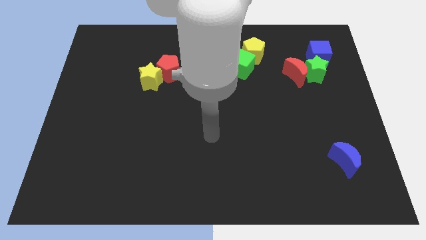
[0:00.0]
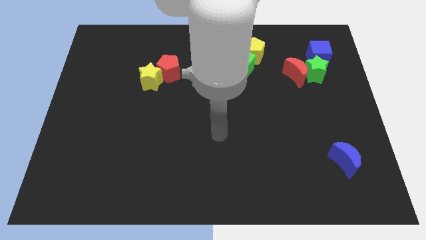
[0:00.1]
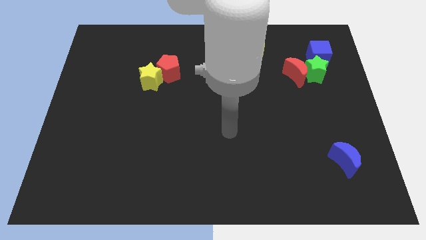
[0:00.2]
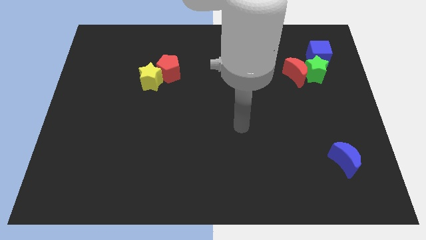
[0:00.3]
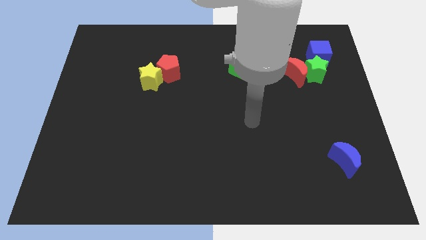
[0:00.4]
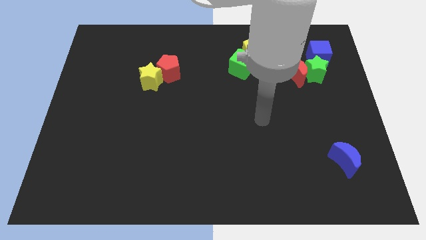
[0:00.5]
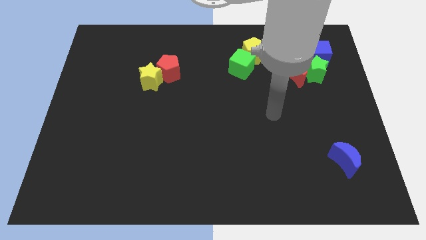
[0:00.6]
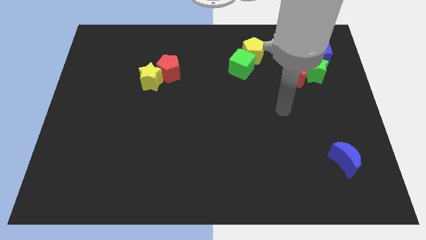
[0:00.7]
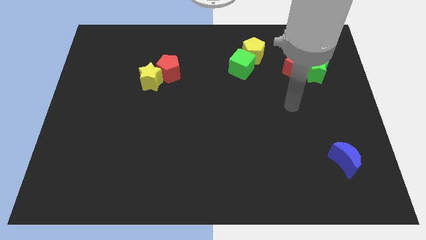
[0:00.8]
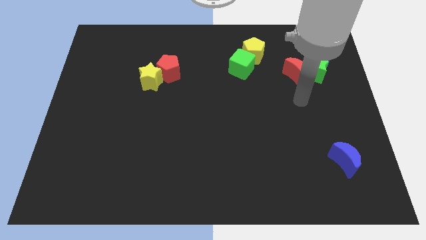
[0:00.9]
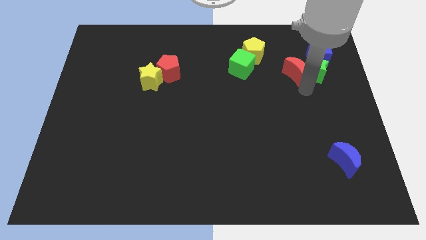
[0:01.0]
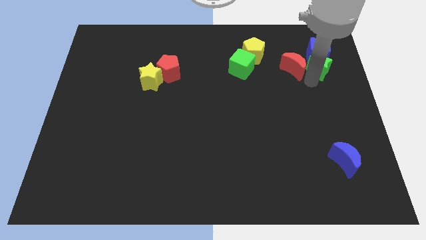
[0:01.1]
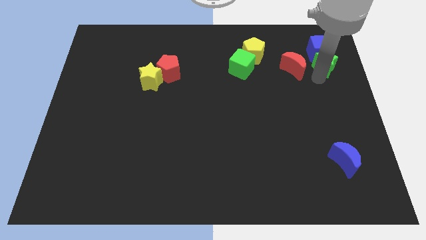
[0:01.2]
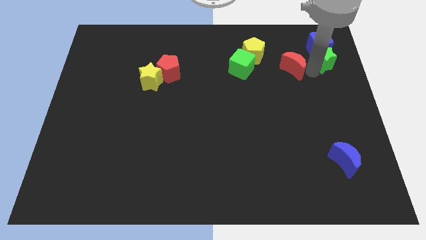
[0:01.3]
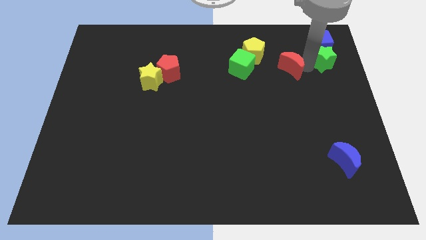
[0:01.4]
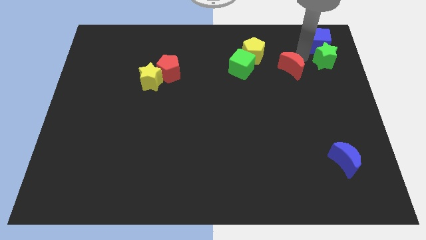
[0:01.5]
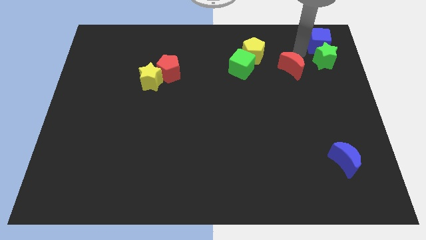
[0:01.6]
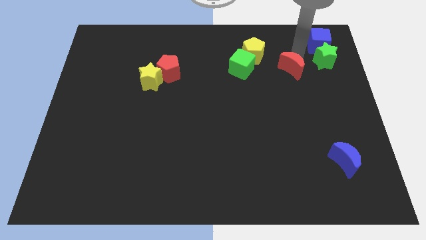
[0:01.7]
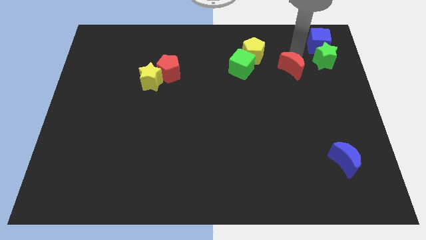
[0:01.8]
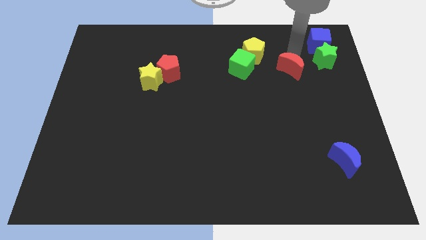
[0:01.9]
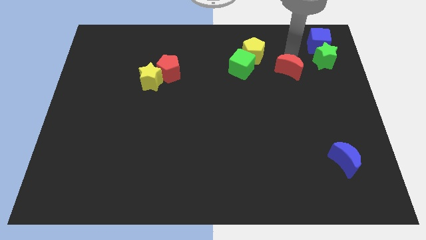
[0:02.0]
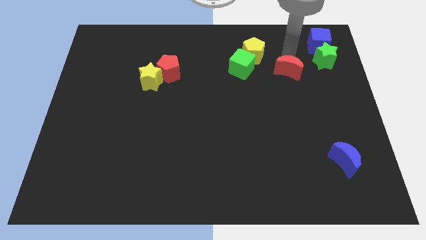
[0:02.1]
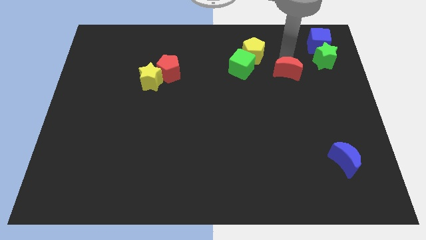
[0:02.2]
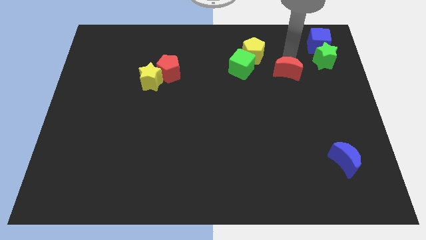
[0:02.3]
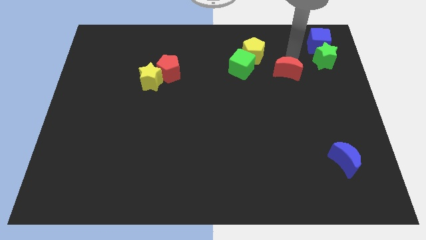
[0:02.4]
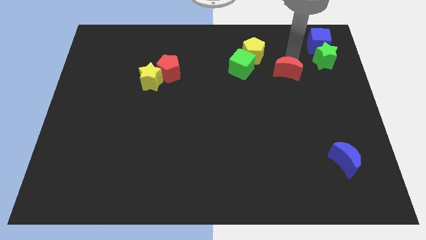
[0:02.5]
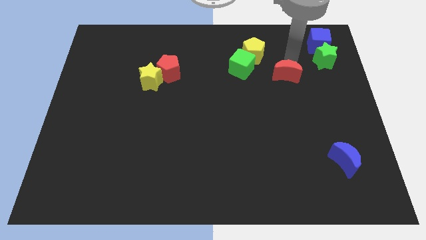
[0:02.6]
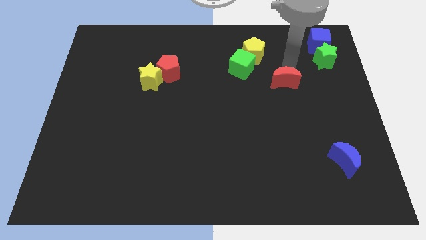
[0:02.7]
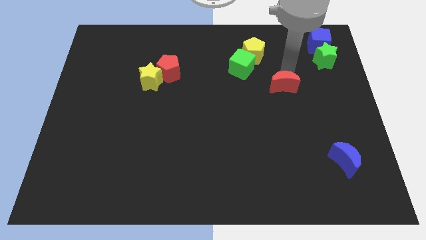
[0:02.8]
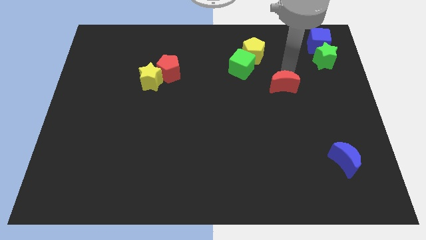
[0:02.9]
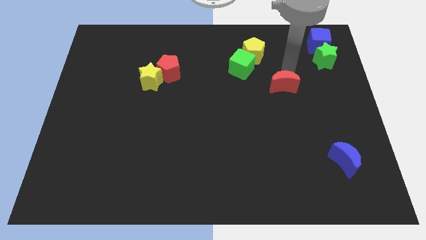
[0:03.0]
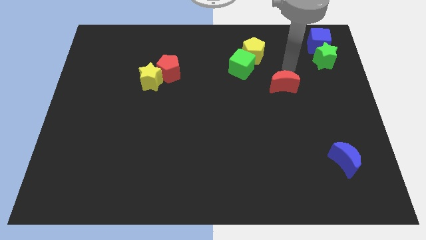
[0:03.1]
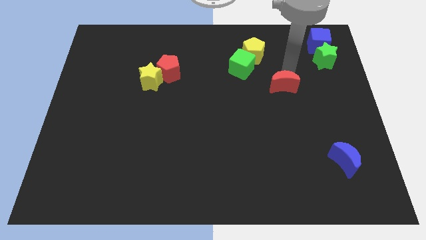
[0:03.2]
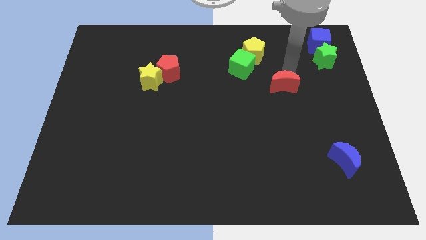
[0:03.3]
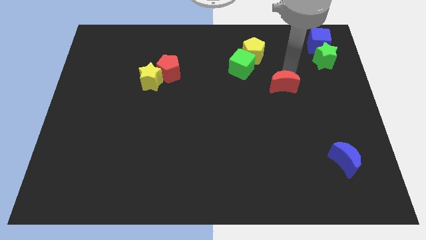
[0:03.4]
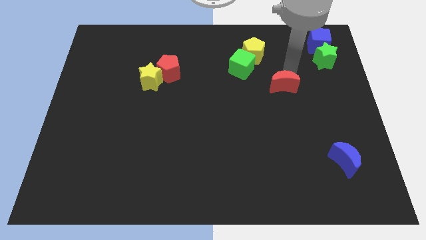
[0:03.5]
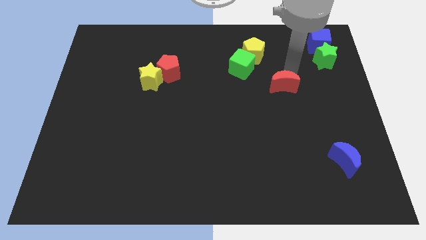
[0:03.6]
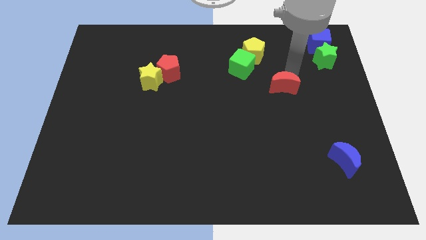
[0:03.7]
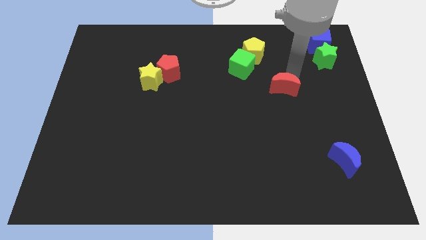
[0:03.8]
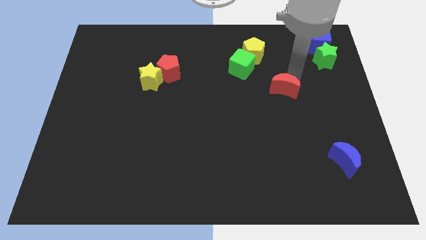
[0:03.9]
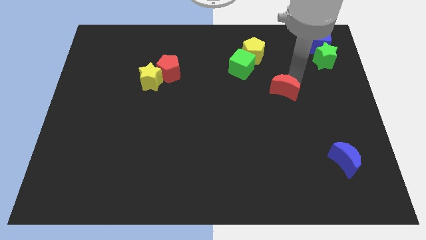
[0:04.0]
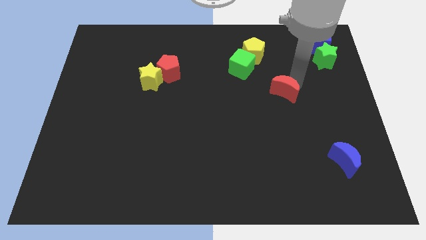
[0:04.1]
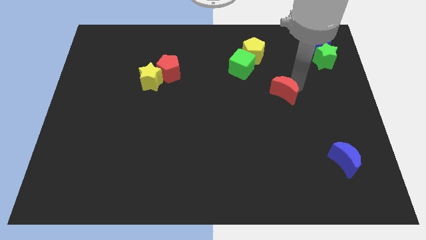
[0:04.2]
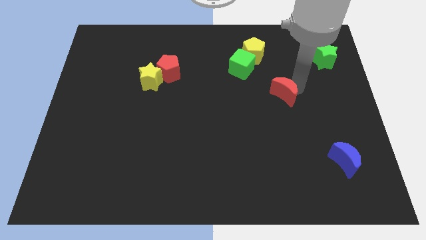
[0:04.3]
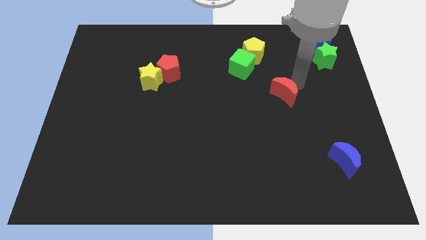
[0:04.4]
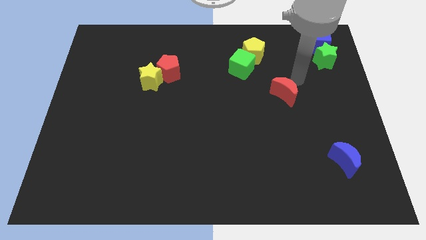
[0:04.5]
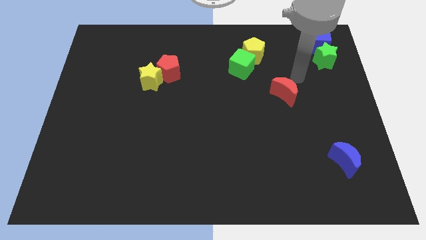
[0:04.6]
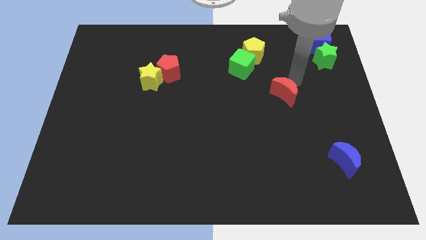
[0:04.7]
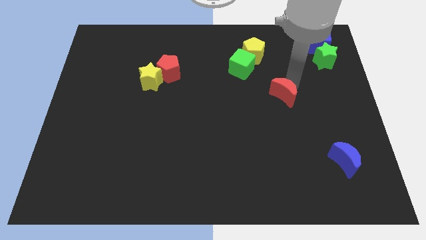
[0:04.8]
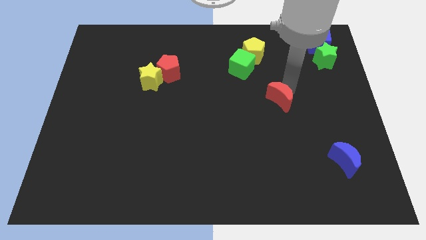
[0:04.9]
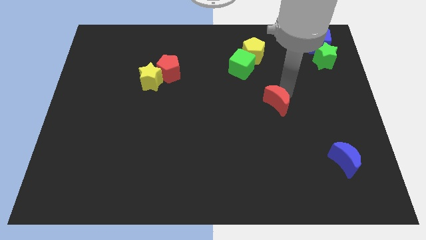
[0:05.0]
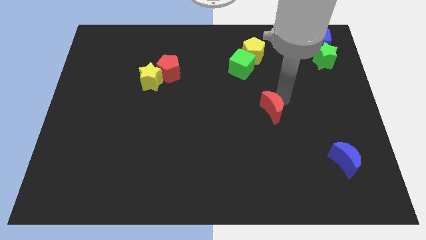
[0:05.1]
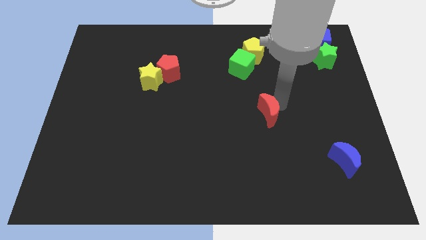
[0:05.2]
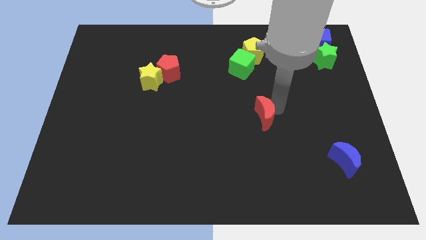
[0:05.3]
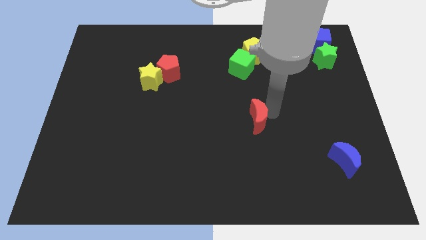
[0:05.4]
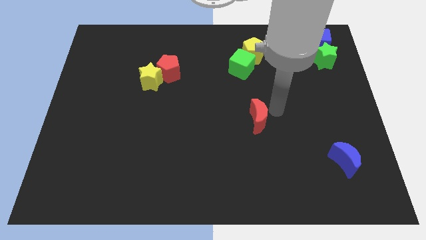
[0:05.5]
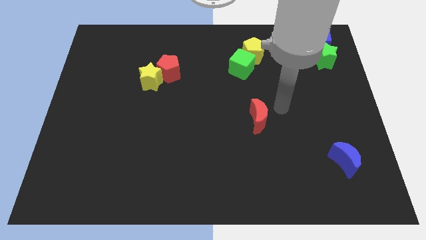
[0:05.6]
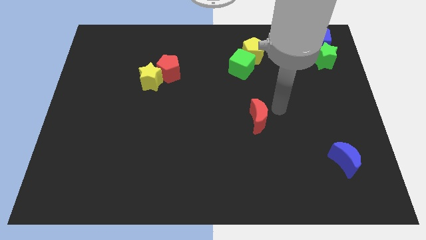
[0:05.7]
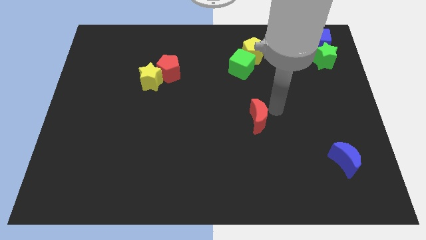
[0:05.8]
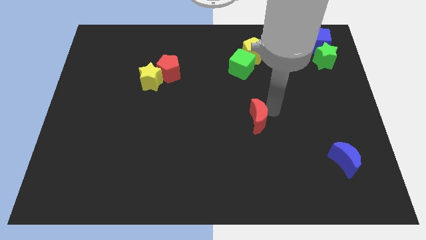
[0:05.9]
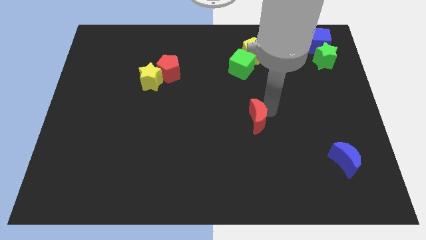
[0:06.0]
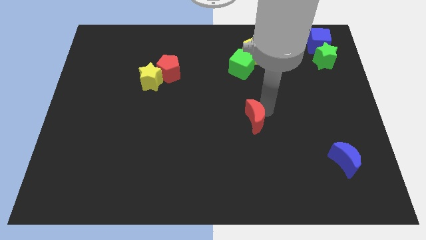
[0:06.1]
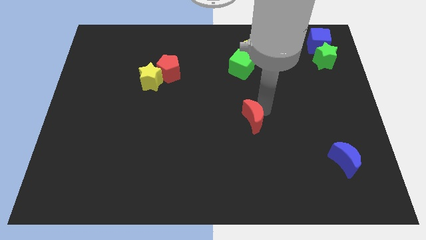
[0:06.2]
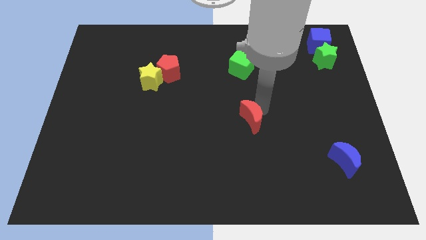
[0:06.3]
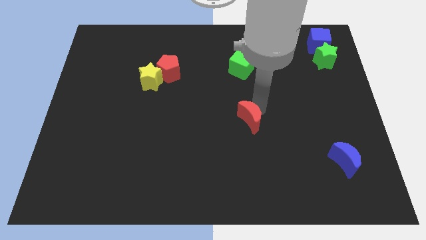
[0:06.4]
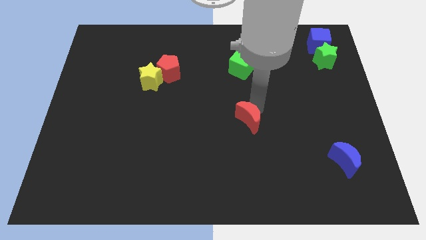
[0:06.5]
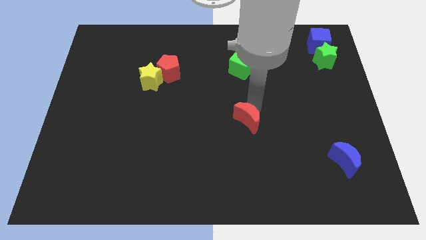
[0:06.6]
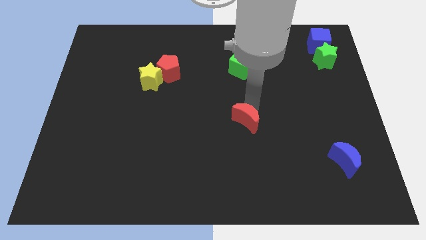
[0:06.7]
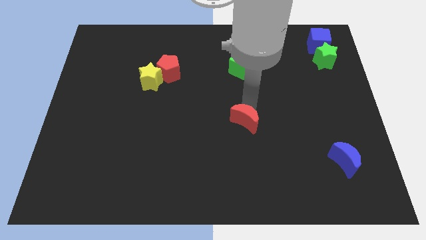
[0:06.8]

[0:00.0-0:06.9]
move the red moon down and then to the left

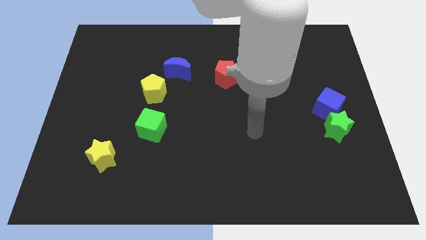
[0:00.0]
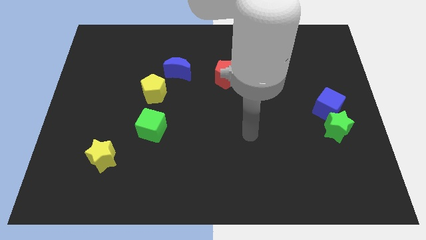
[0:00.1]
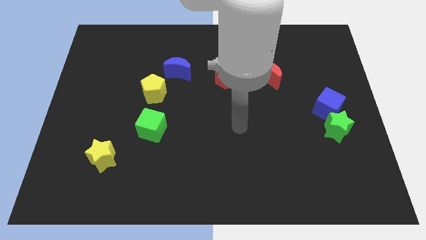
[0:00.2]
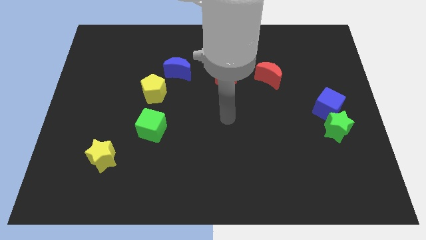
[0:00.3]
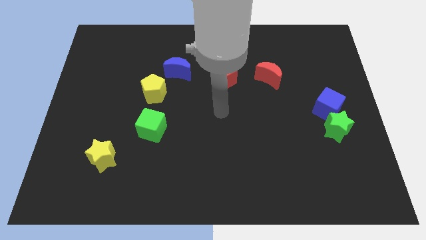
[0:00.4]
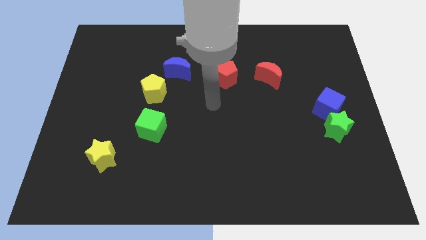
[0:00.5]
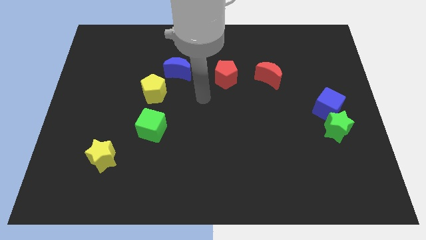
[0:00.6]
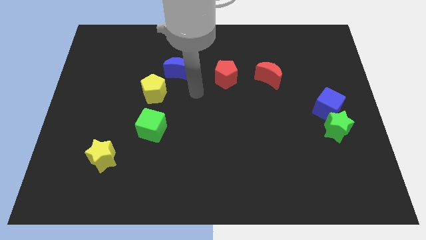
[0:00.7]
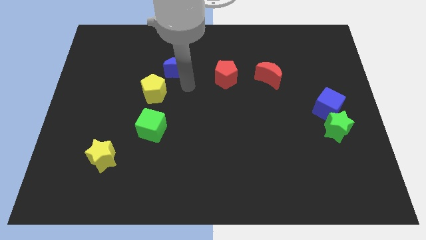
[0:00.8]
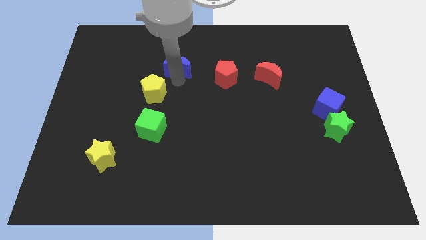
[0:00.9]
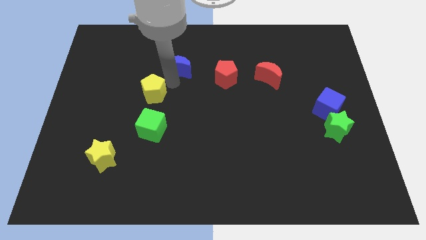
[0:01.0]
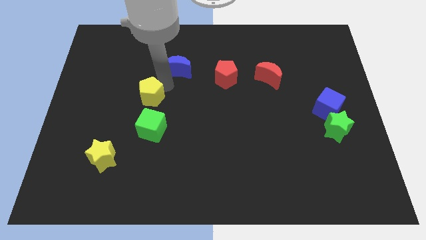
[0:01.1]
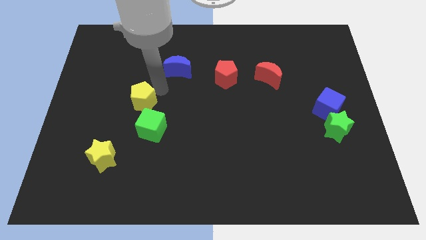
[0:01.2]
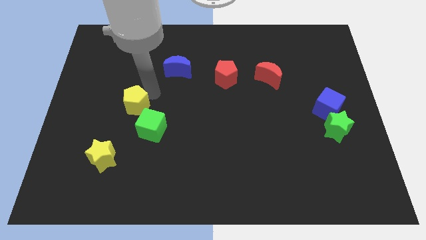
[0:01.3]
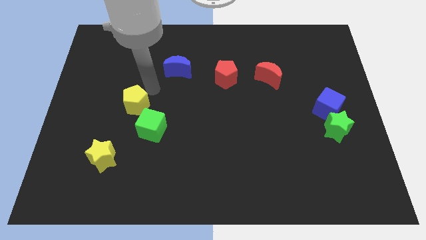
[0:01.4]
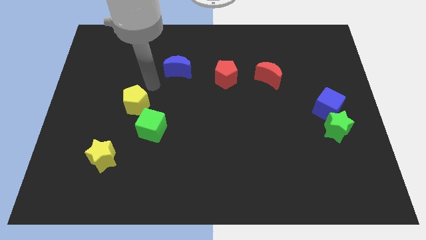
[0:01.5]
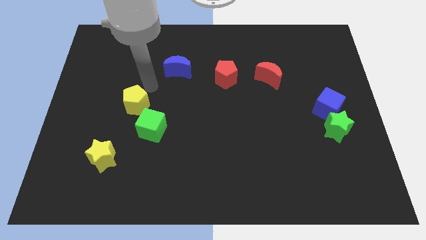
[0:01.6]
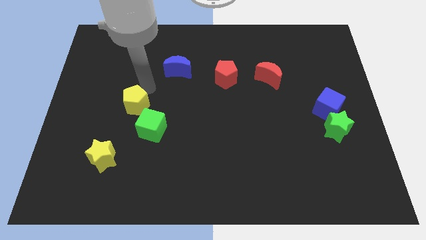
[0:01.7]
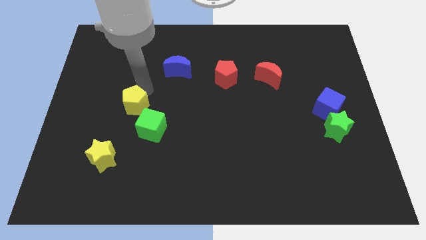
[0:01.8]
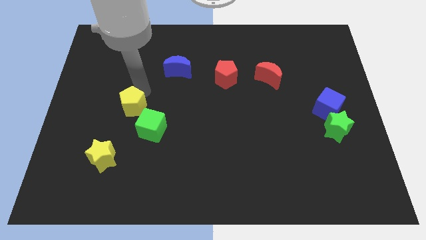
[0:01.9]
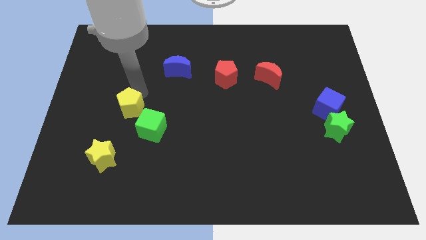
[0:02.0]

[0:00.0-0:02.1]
push the yellow pentagon a bit downwards and then to the left
